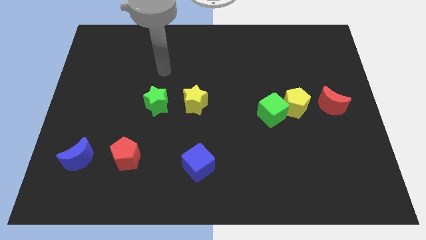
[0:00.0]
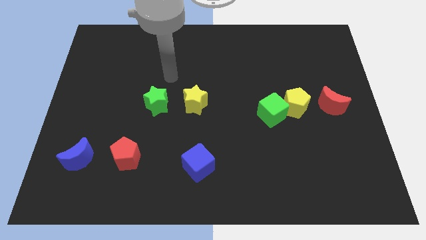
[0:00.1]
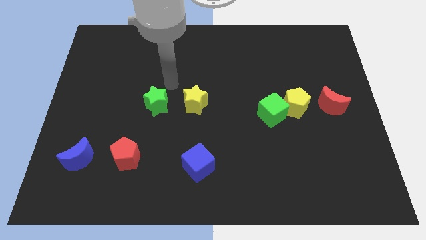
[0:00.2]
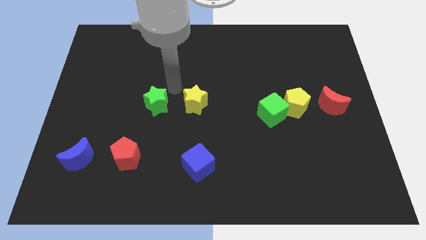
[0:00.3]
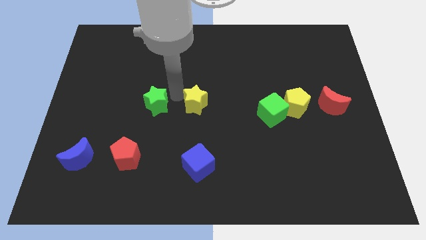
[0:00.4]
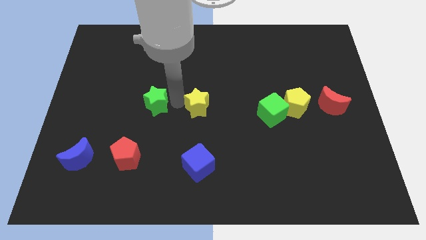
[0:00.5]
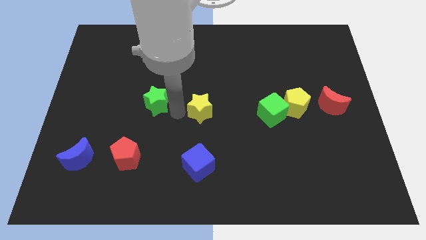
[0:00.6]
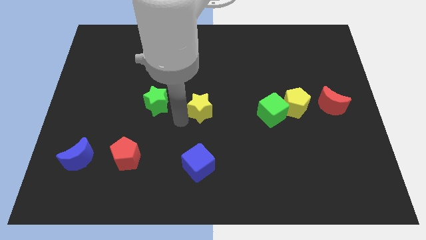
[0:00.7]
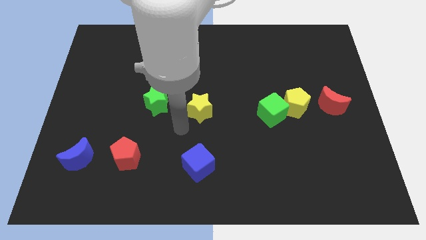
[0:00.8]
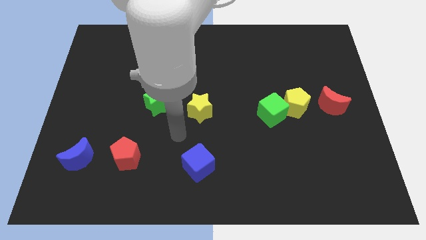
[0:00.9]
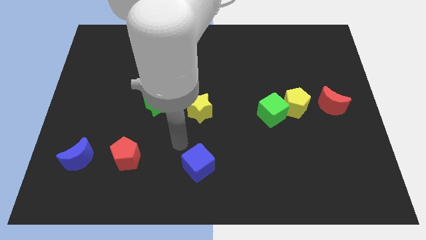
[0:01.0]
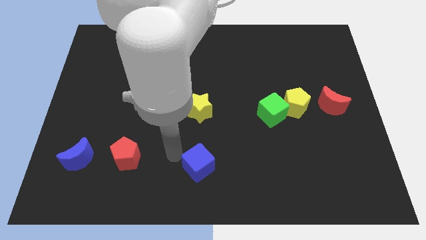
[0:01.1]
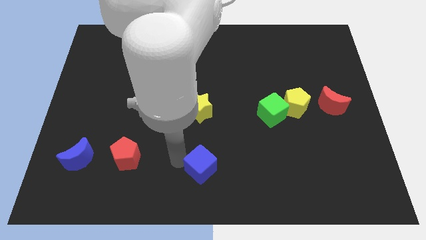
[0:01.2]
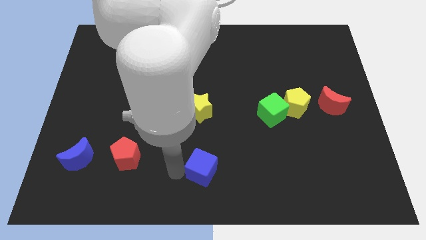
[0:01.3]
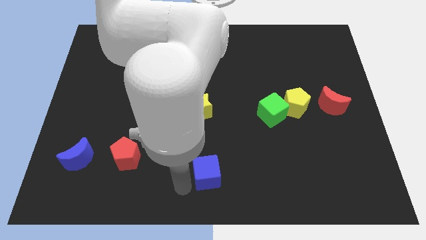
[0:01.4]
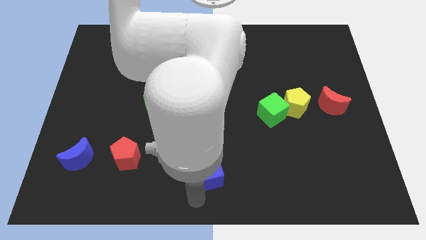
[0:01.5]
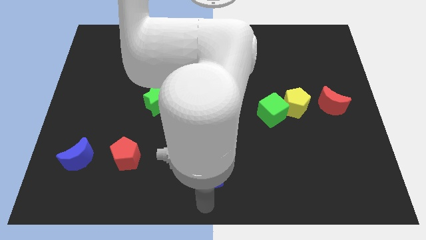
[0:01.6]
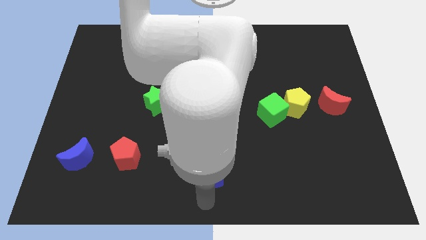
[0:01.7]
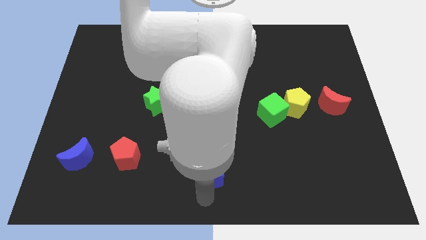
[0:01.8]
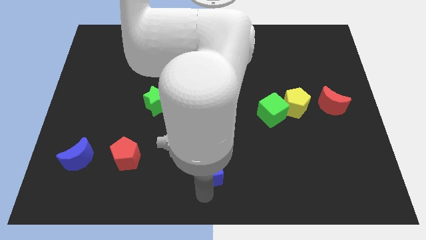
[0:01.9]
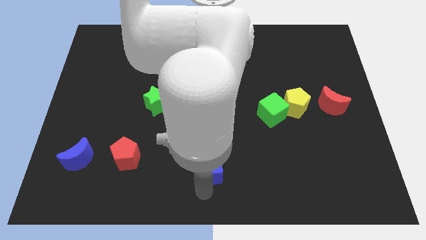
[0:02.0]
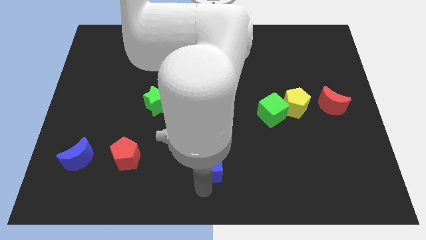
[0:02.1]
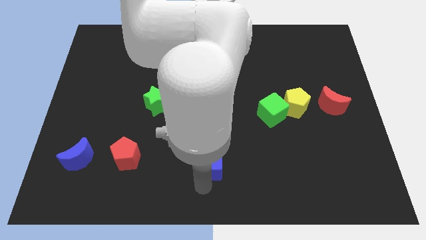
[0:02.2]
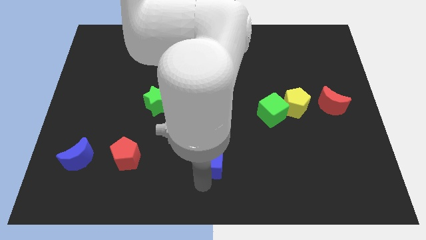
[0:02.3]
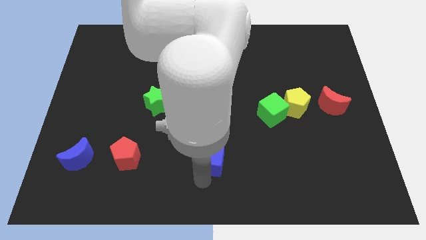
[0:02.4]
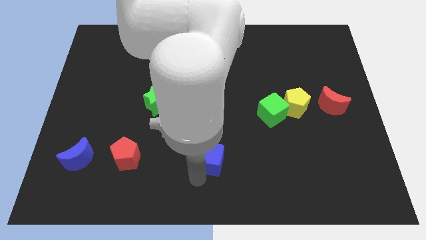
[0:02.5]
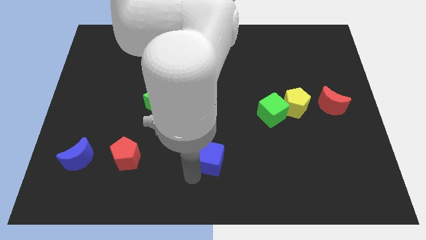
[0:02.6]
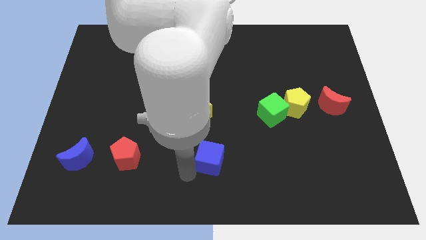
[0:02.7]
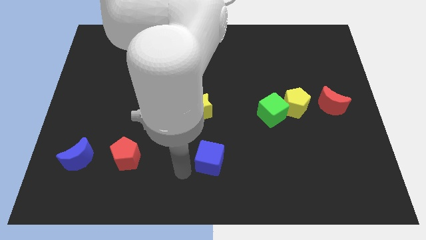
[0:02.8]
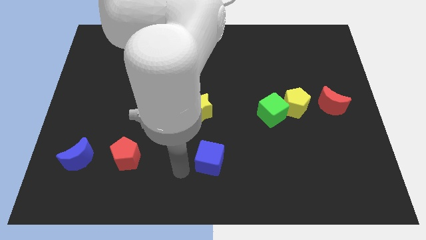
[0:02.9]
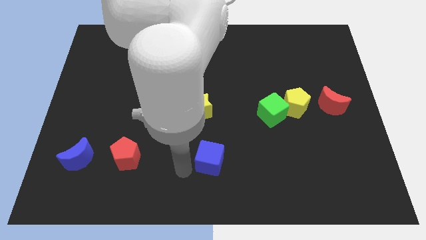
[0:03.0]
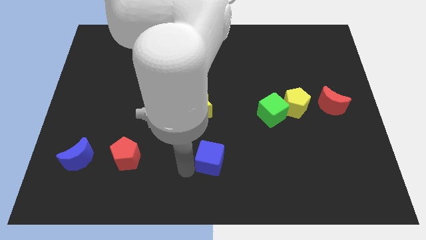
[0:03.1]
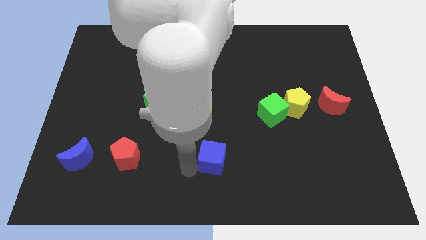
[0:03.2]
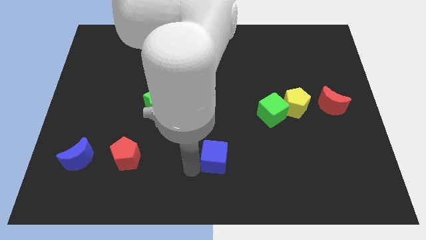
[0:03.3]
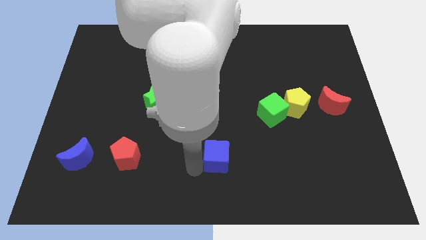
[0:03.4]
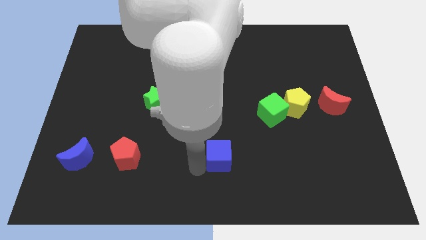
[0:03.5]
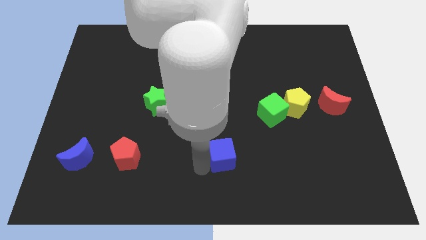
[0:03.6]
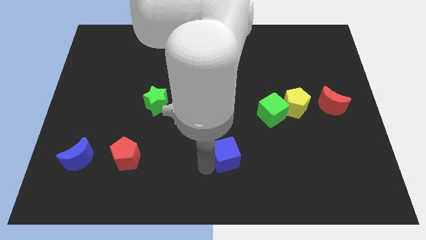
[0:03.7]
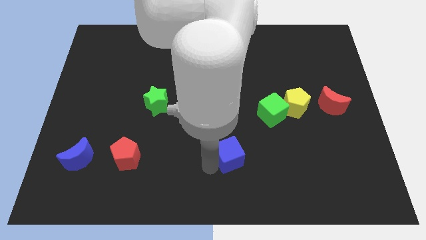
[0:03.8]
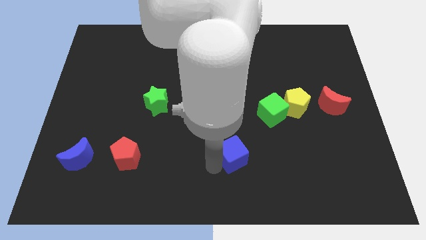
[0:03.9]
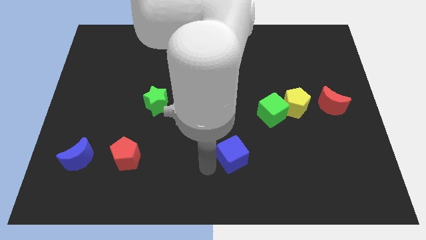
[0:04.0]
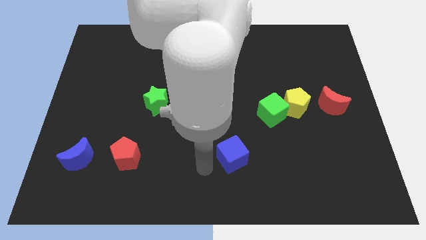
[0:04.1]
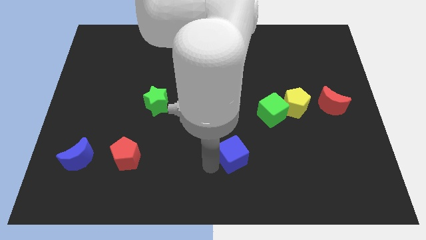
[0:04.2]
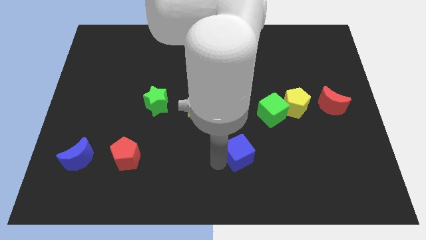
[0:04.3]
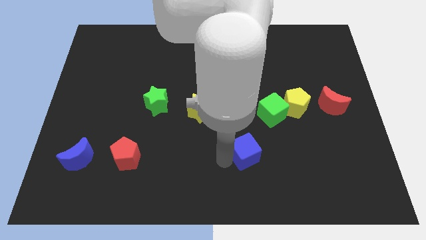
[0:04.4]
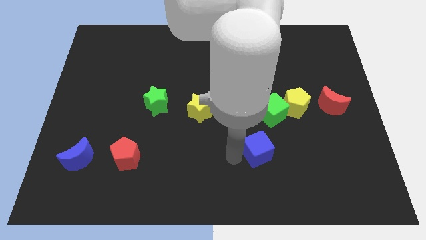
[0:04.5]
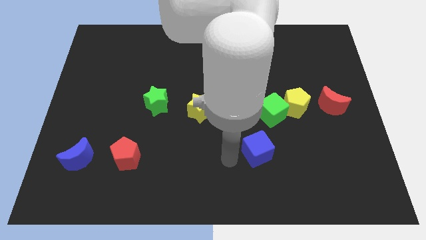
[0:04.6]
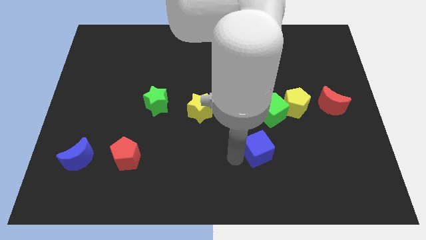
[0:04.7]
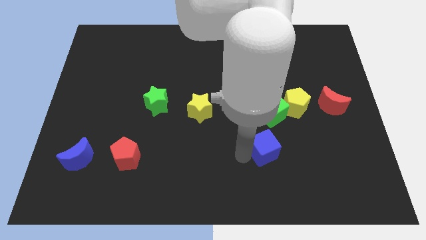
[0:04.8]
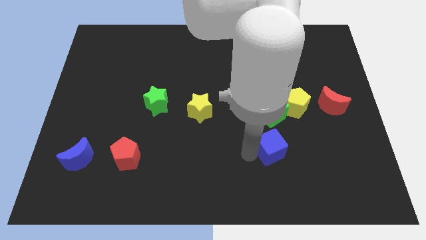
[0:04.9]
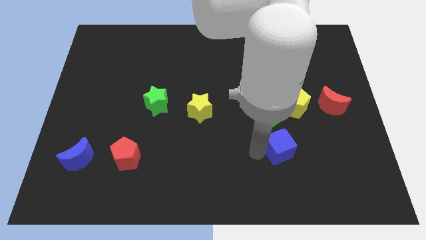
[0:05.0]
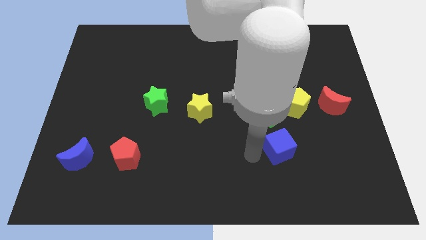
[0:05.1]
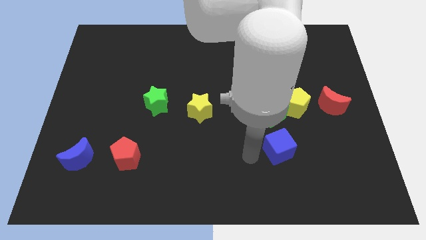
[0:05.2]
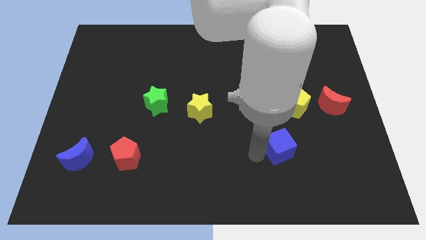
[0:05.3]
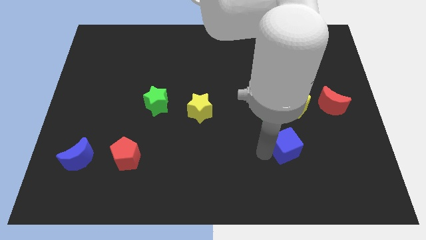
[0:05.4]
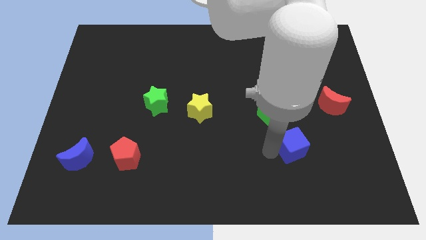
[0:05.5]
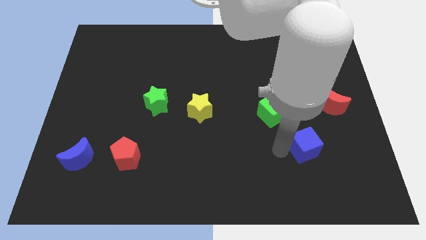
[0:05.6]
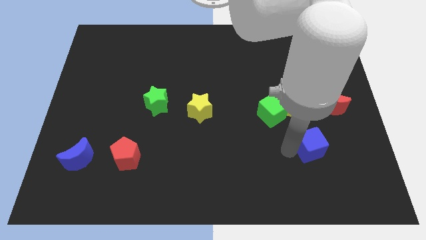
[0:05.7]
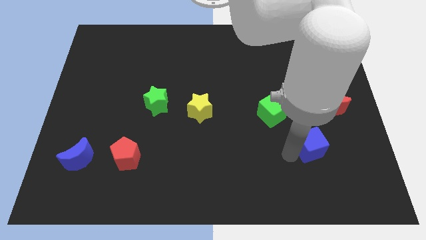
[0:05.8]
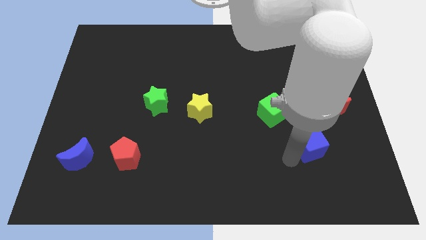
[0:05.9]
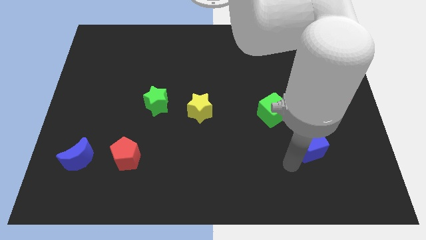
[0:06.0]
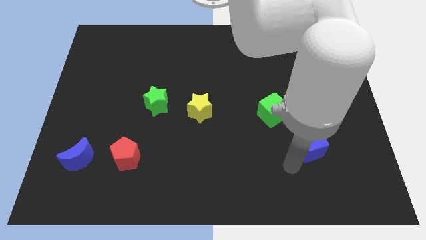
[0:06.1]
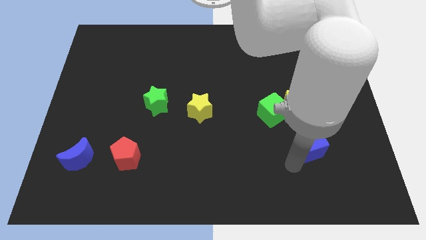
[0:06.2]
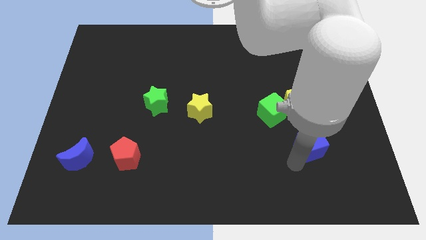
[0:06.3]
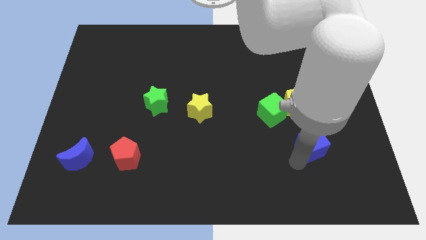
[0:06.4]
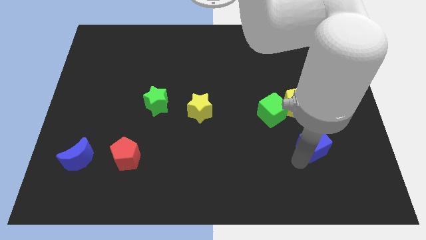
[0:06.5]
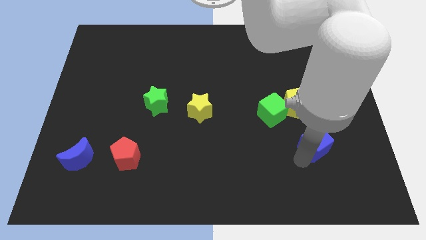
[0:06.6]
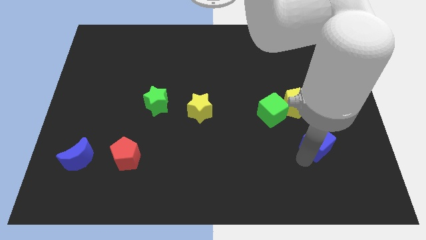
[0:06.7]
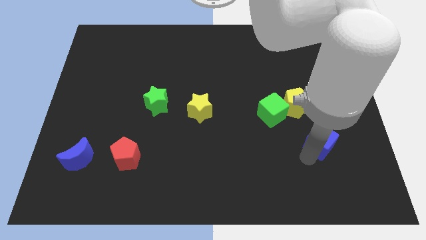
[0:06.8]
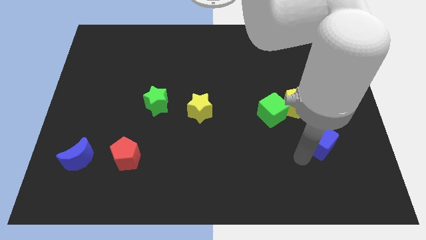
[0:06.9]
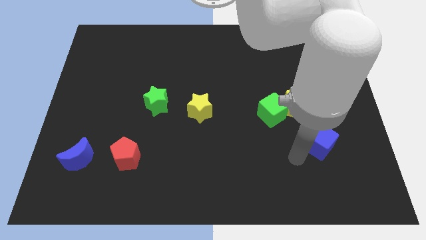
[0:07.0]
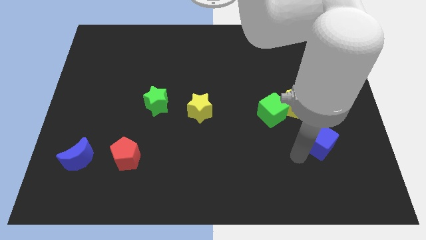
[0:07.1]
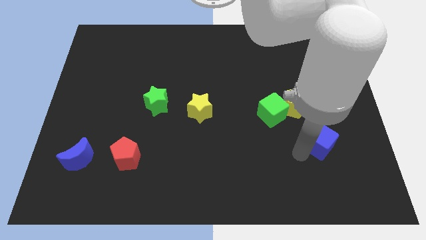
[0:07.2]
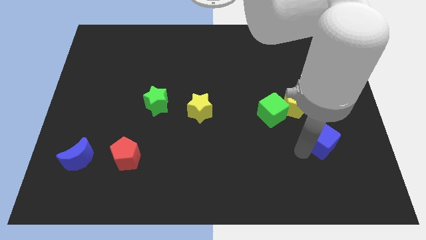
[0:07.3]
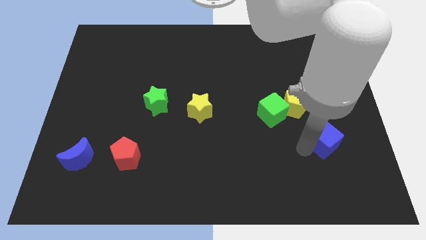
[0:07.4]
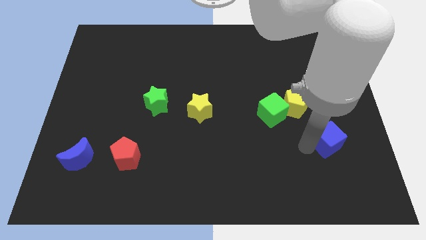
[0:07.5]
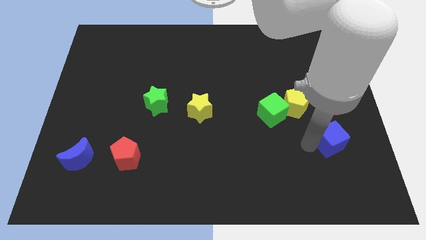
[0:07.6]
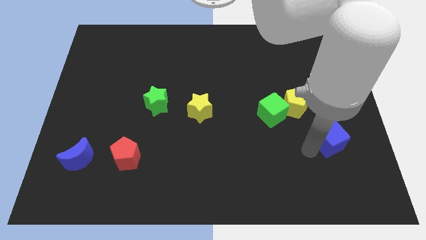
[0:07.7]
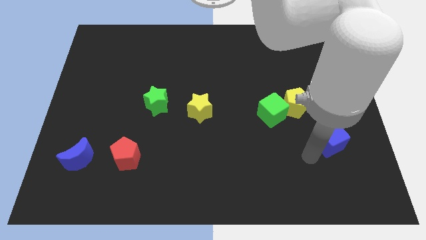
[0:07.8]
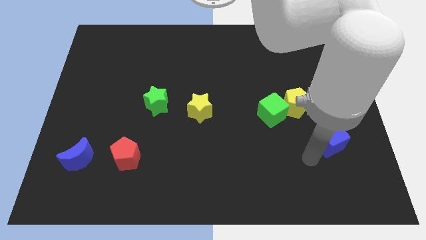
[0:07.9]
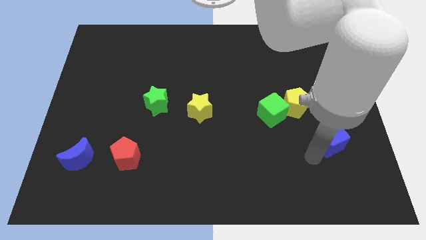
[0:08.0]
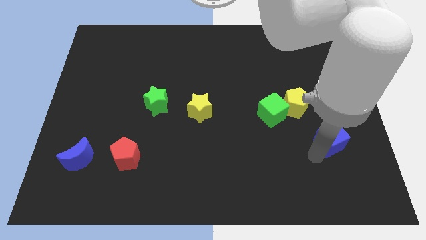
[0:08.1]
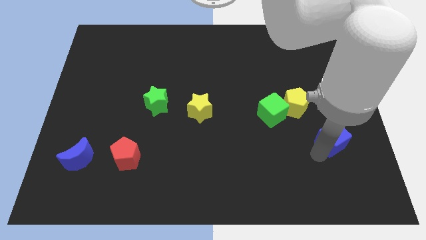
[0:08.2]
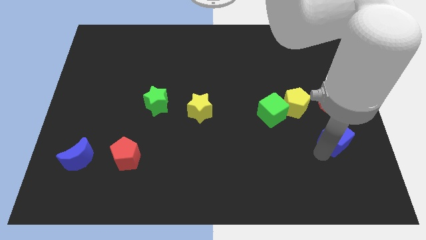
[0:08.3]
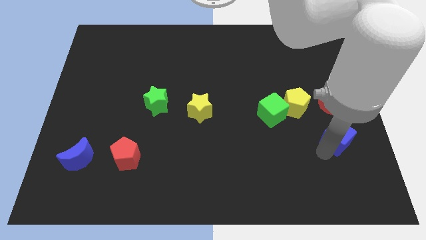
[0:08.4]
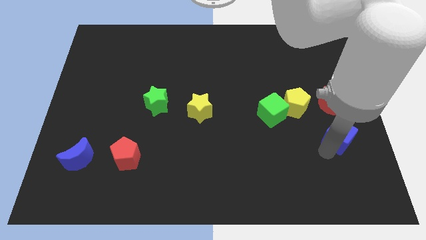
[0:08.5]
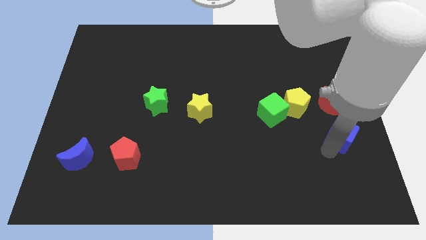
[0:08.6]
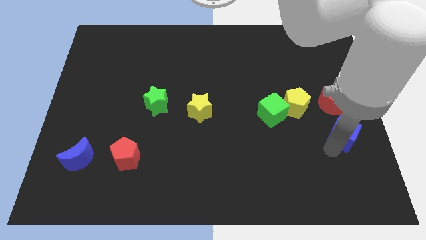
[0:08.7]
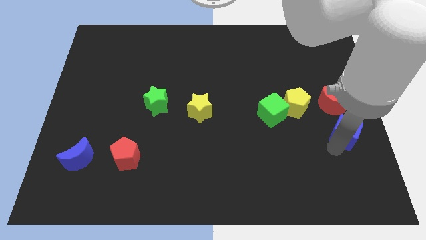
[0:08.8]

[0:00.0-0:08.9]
slide the blue cube to the center right
